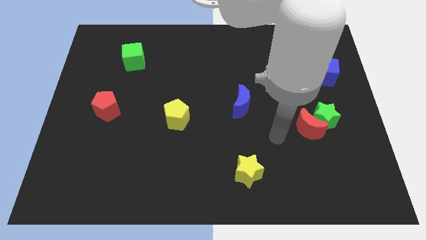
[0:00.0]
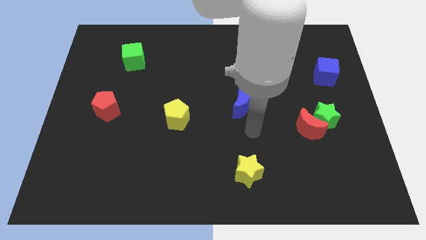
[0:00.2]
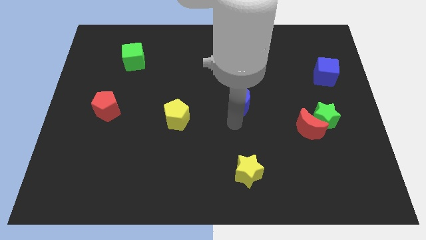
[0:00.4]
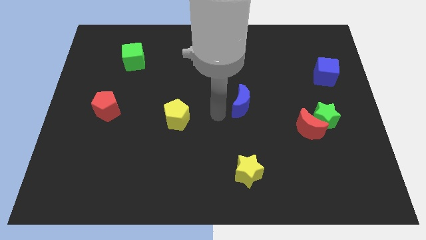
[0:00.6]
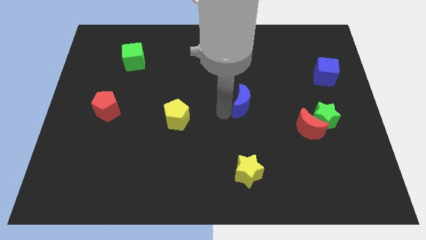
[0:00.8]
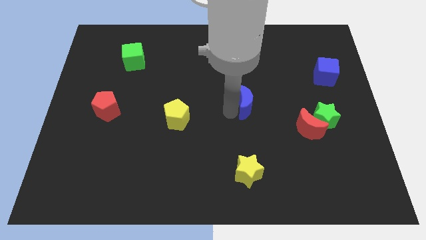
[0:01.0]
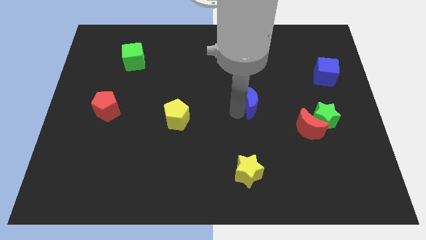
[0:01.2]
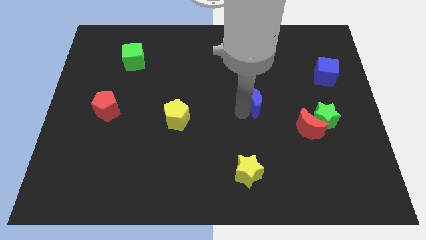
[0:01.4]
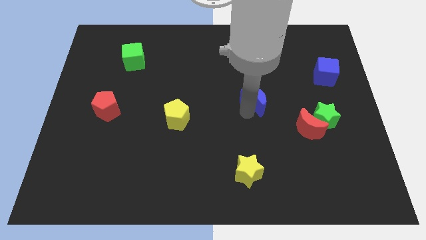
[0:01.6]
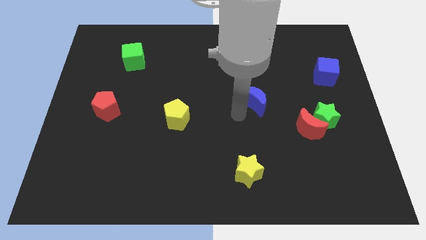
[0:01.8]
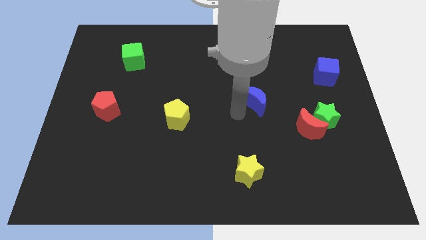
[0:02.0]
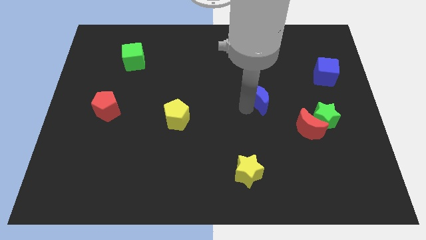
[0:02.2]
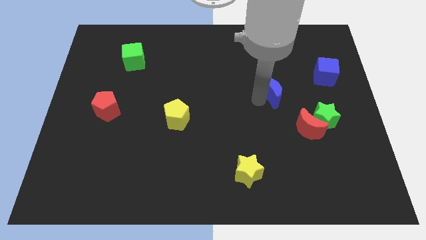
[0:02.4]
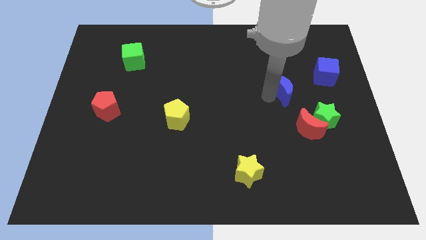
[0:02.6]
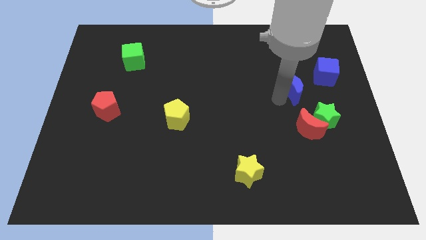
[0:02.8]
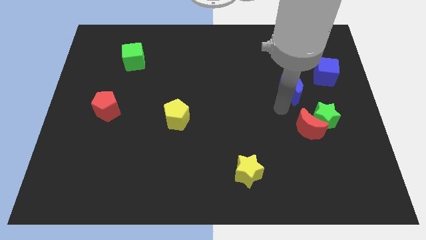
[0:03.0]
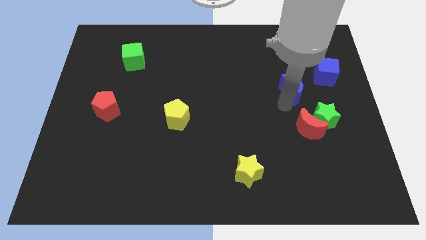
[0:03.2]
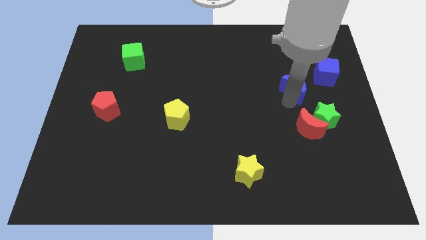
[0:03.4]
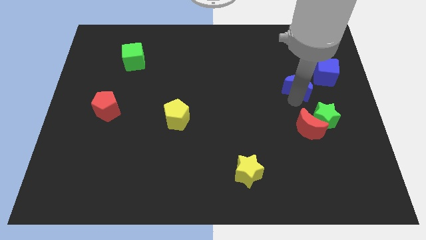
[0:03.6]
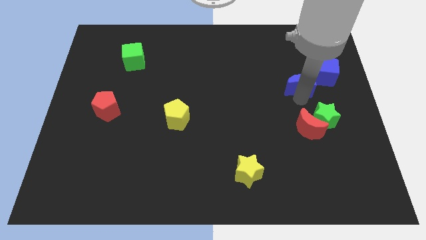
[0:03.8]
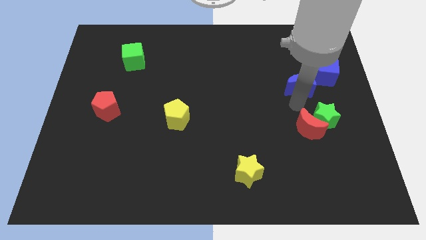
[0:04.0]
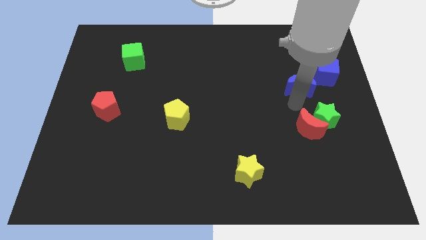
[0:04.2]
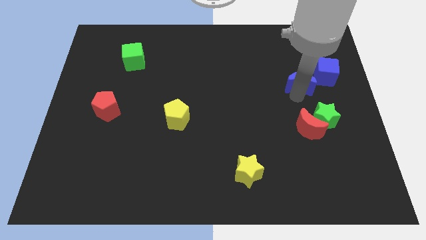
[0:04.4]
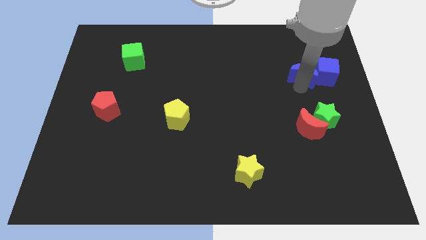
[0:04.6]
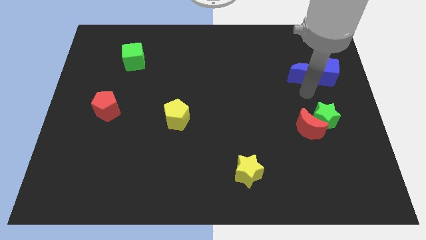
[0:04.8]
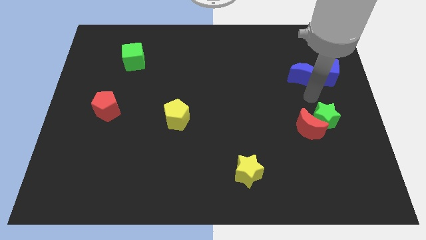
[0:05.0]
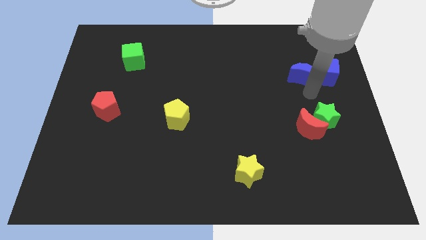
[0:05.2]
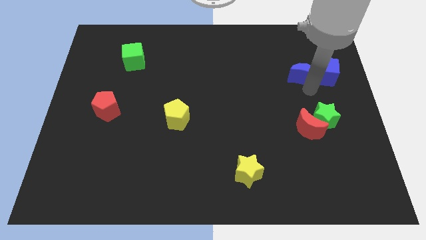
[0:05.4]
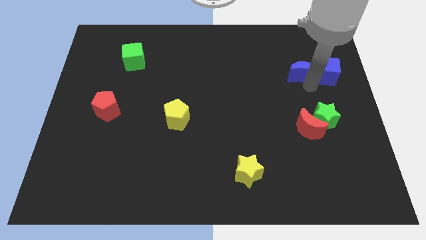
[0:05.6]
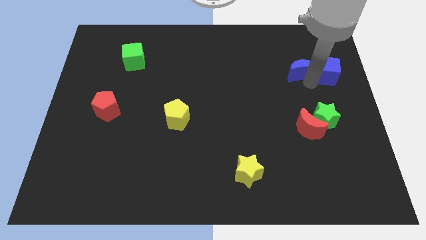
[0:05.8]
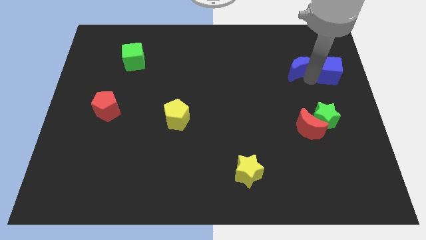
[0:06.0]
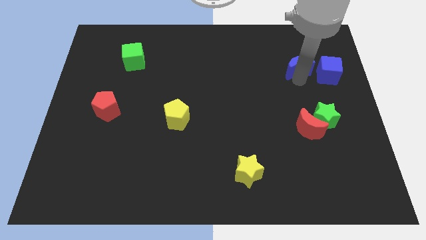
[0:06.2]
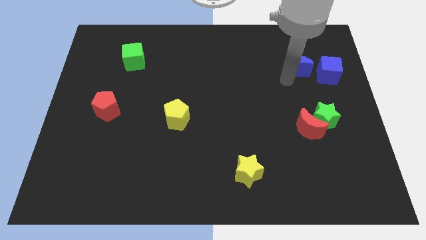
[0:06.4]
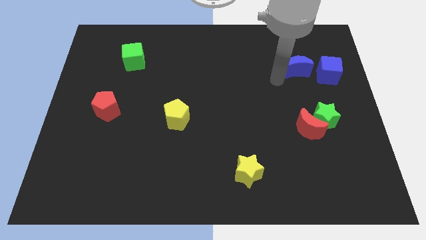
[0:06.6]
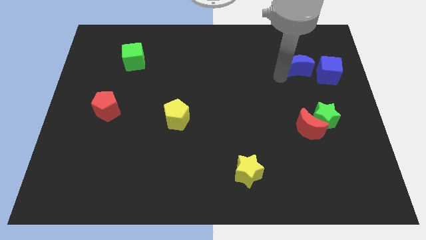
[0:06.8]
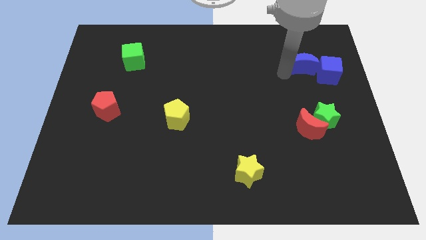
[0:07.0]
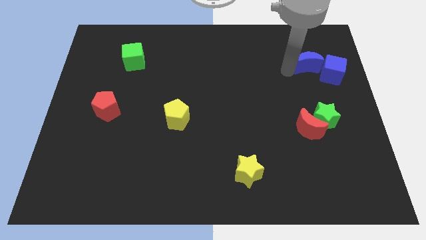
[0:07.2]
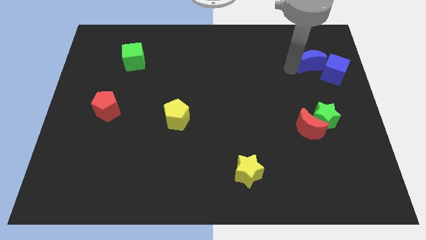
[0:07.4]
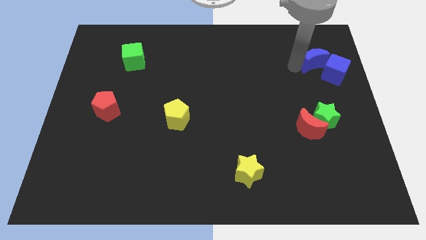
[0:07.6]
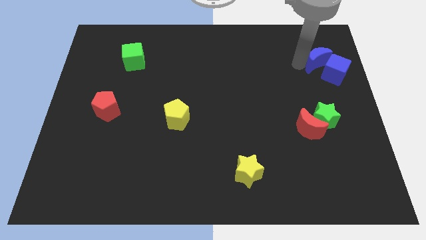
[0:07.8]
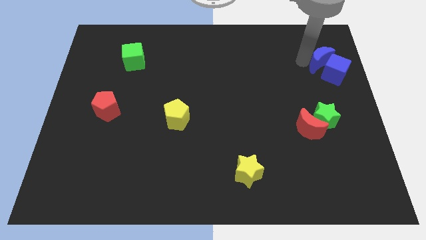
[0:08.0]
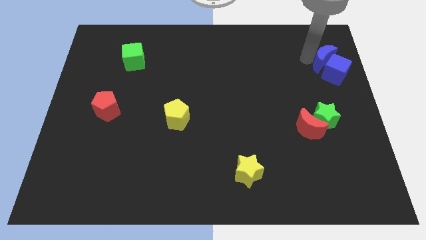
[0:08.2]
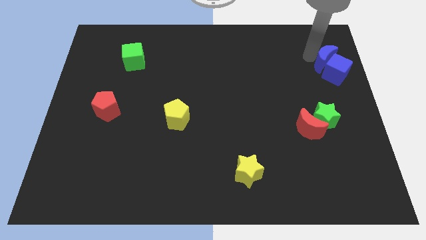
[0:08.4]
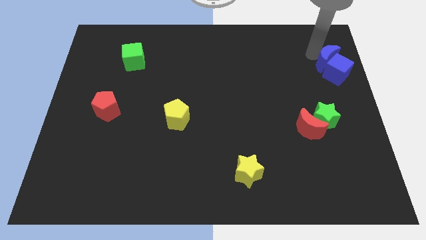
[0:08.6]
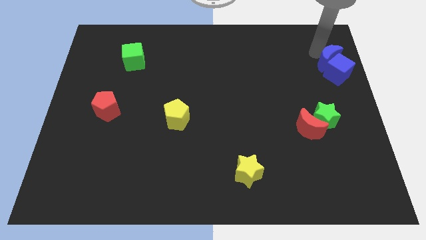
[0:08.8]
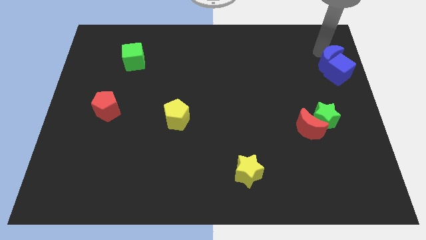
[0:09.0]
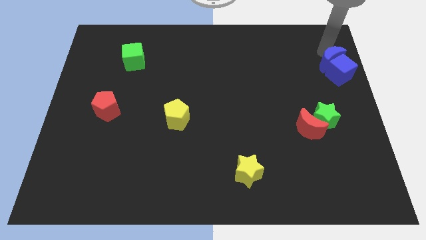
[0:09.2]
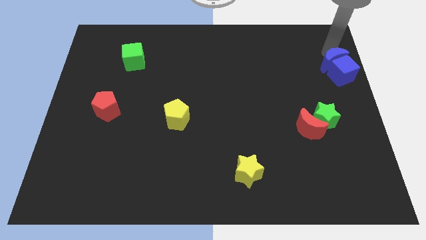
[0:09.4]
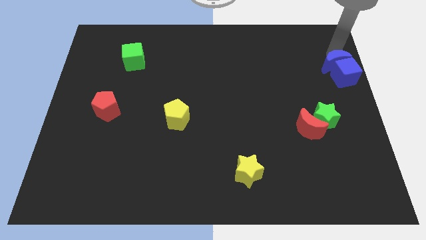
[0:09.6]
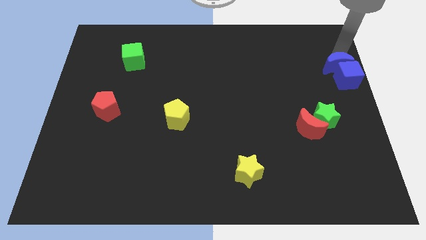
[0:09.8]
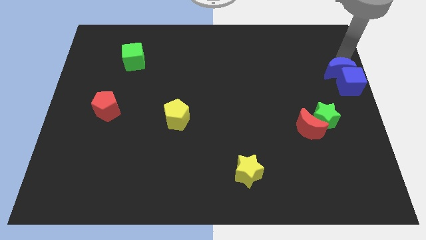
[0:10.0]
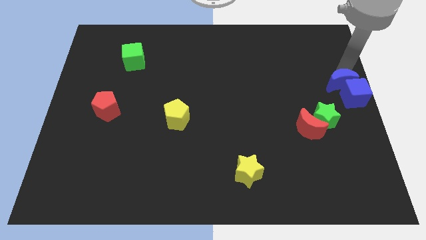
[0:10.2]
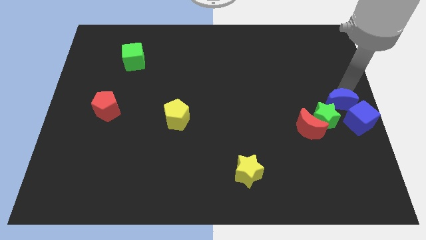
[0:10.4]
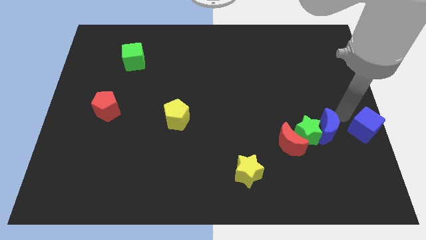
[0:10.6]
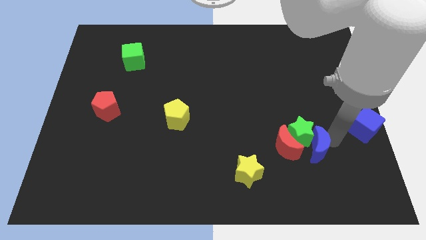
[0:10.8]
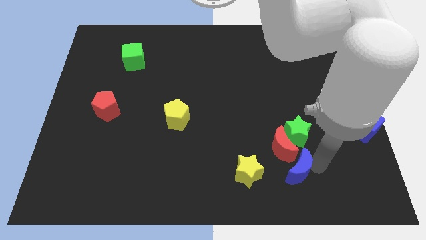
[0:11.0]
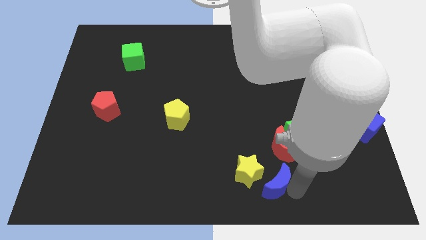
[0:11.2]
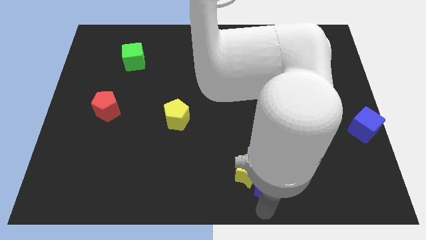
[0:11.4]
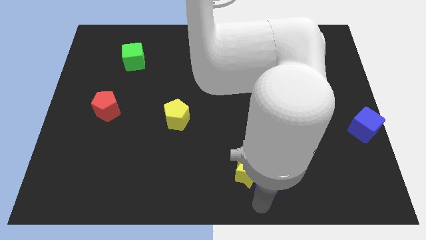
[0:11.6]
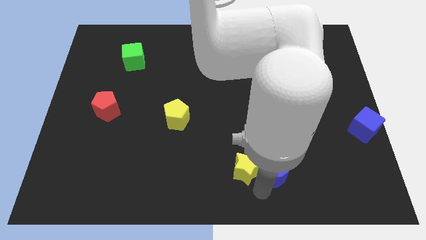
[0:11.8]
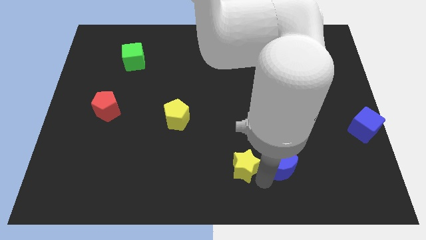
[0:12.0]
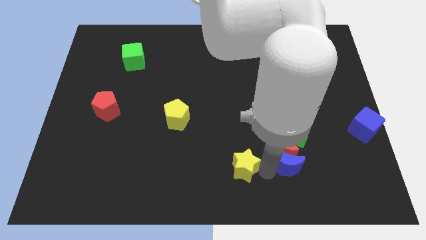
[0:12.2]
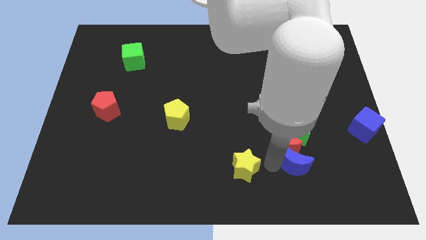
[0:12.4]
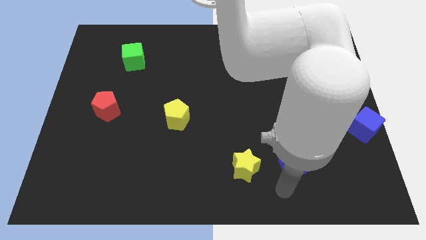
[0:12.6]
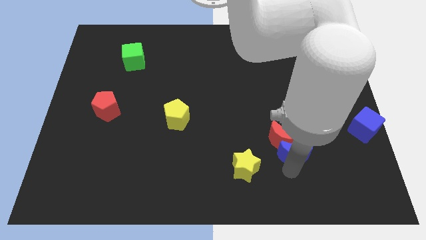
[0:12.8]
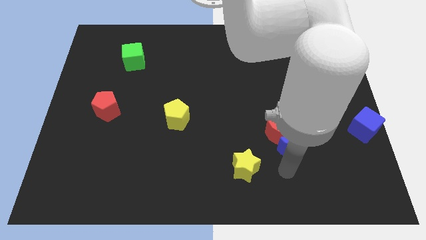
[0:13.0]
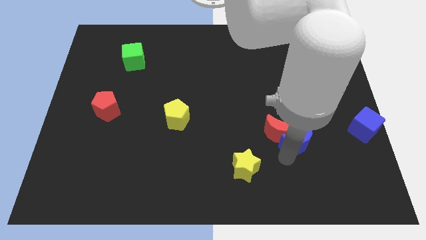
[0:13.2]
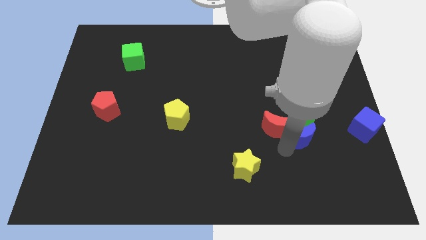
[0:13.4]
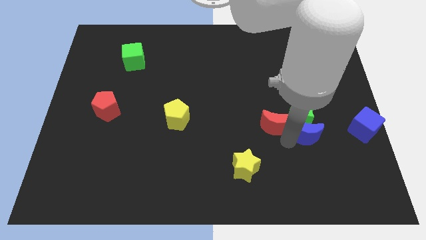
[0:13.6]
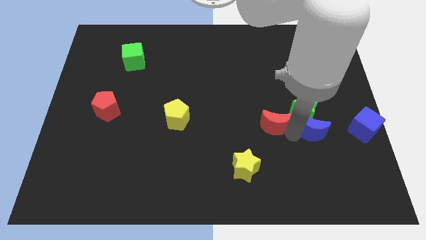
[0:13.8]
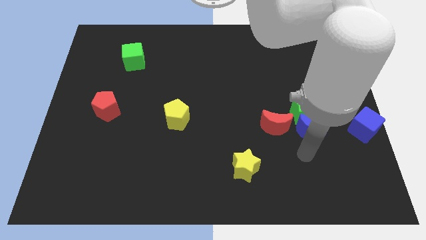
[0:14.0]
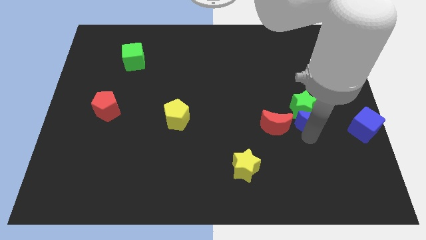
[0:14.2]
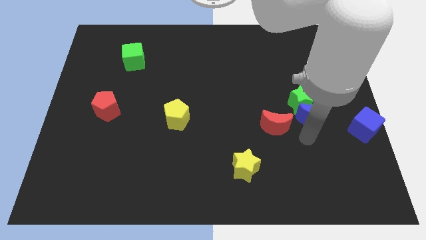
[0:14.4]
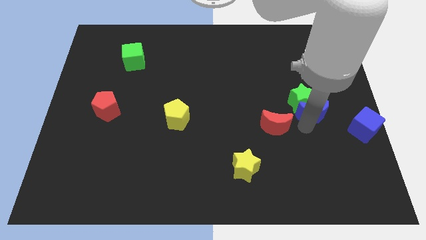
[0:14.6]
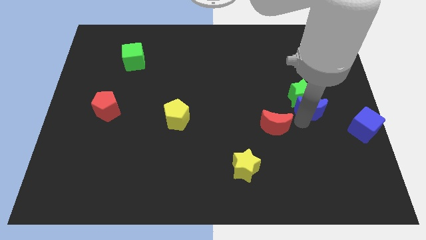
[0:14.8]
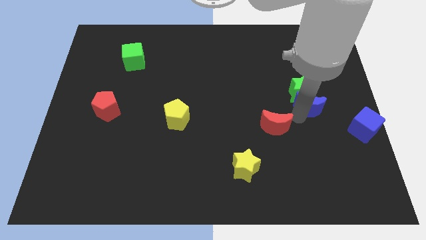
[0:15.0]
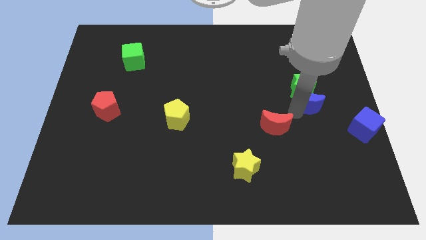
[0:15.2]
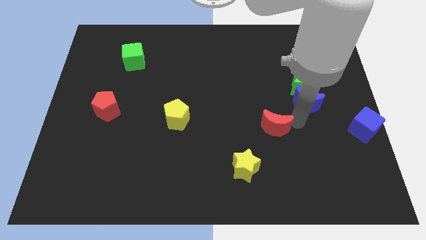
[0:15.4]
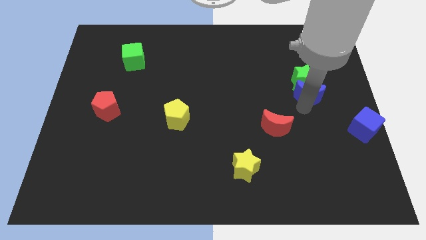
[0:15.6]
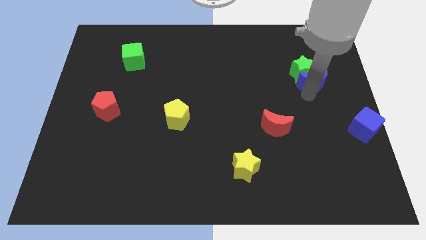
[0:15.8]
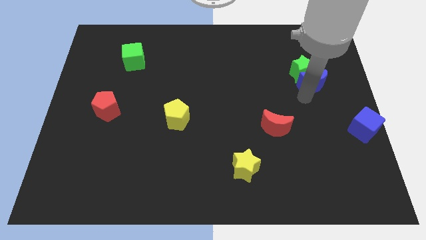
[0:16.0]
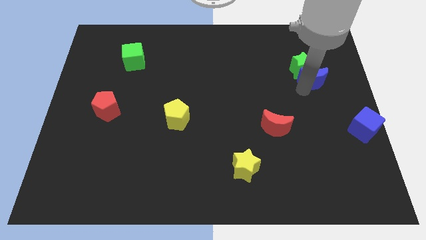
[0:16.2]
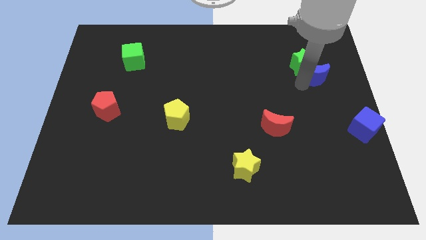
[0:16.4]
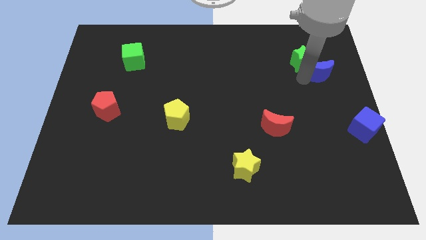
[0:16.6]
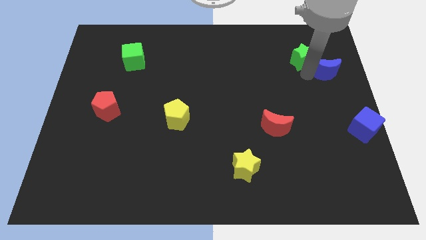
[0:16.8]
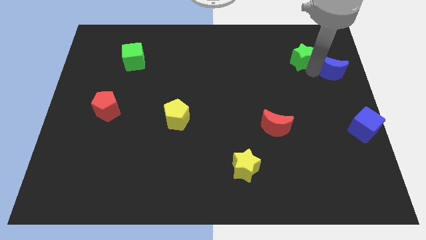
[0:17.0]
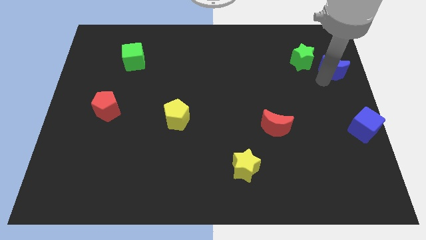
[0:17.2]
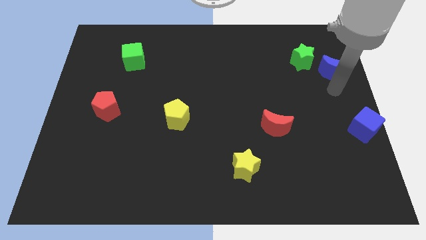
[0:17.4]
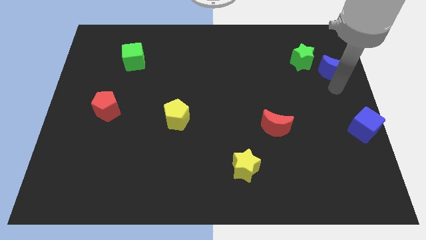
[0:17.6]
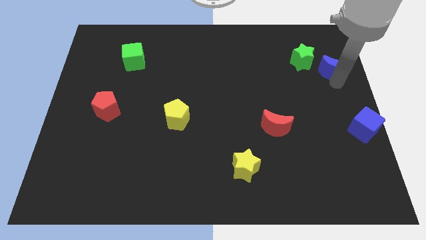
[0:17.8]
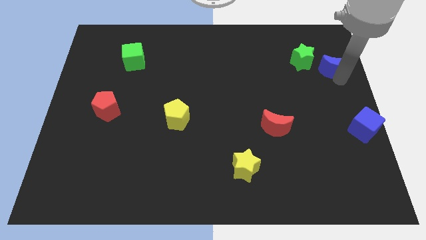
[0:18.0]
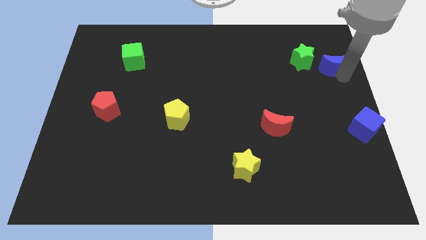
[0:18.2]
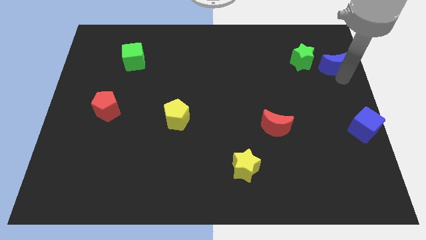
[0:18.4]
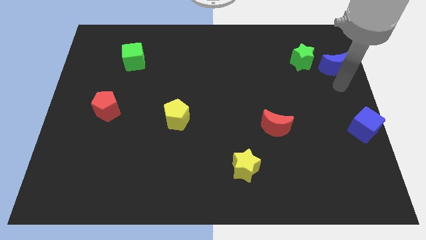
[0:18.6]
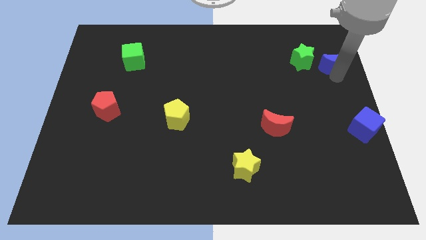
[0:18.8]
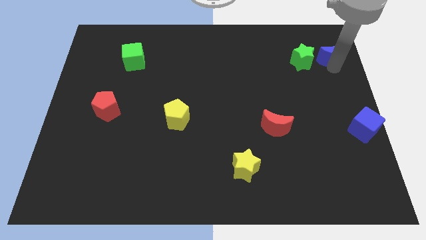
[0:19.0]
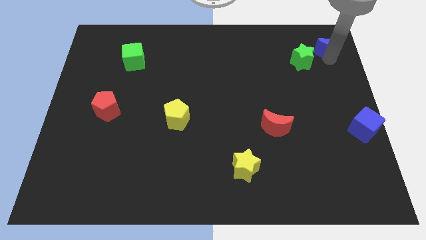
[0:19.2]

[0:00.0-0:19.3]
slide the blue moon to the top right of the board
